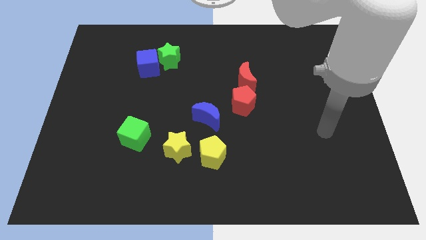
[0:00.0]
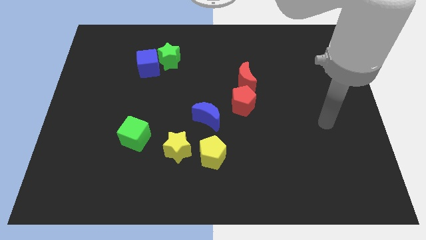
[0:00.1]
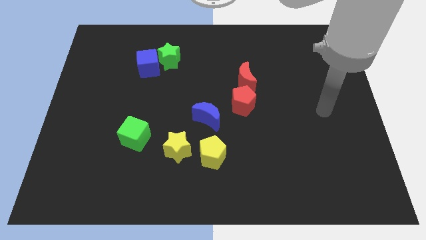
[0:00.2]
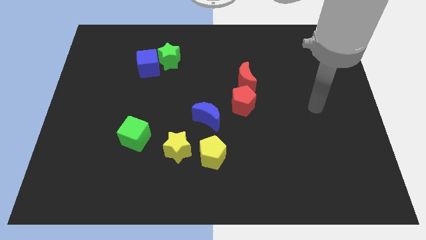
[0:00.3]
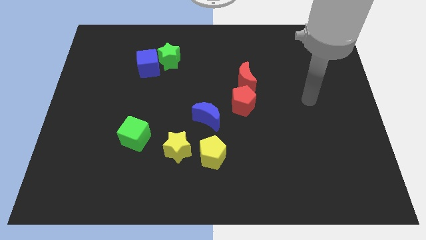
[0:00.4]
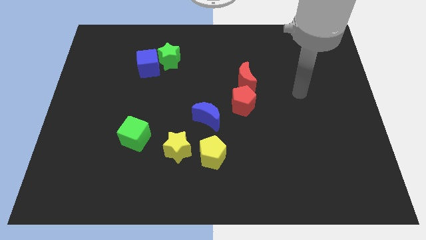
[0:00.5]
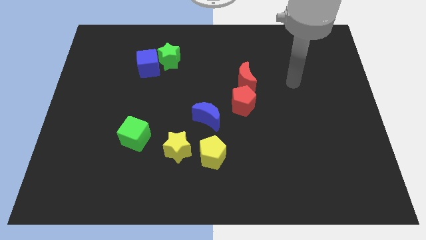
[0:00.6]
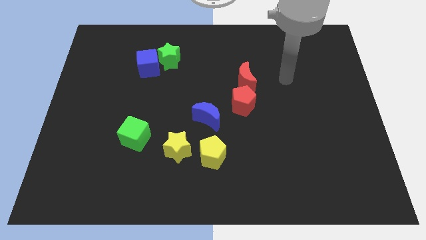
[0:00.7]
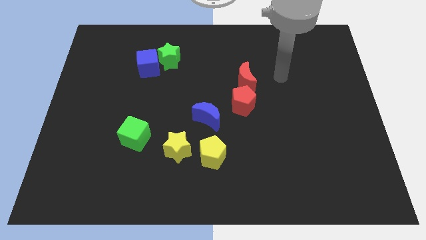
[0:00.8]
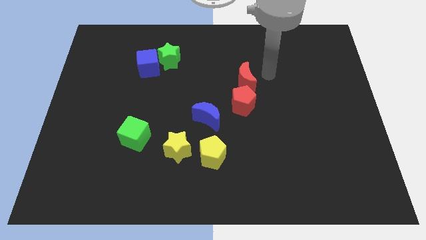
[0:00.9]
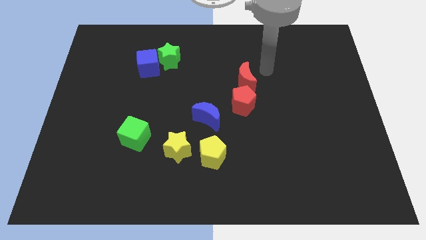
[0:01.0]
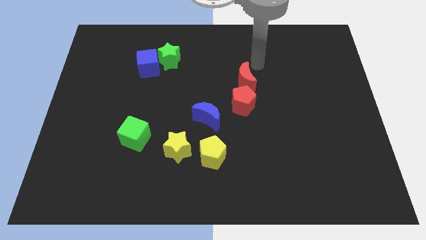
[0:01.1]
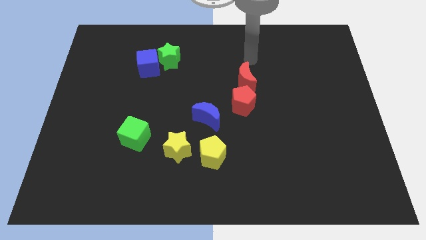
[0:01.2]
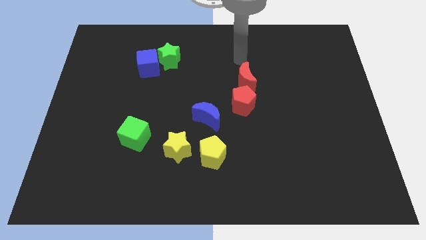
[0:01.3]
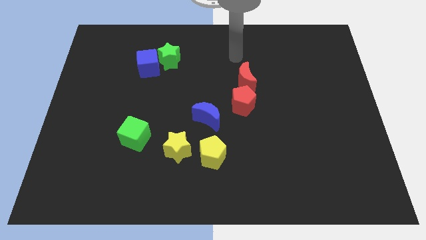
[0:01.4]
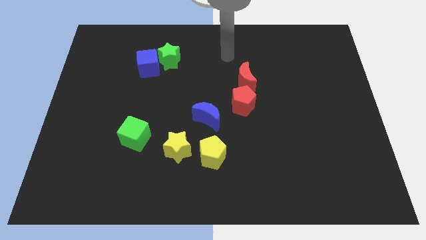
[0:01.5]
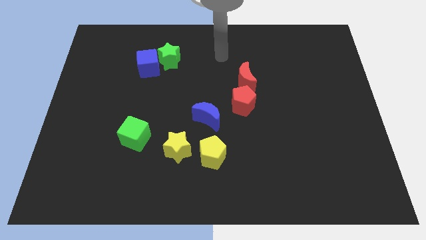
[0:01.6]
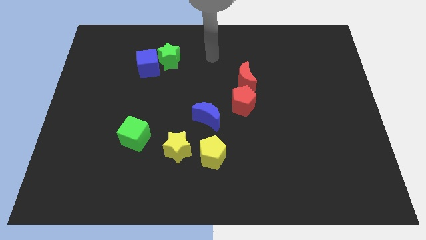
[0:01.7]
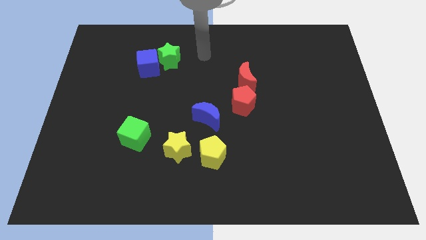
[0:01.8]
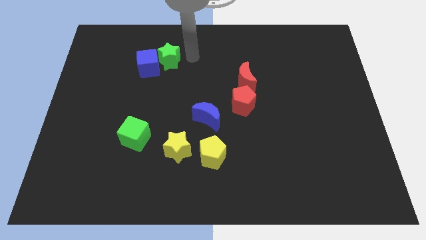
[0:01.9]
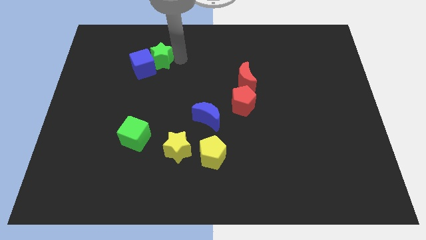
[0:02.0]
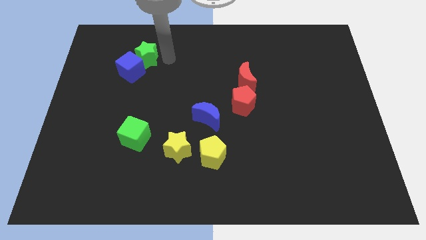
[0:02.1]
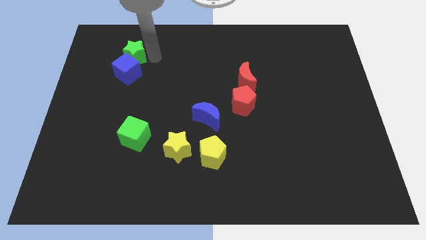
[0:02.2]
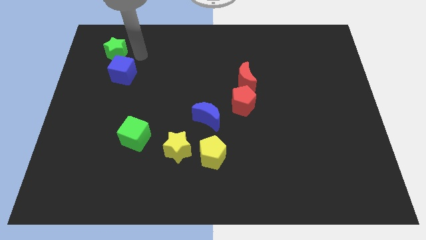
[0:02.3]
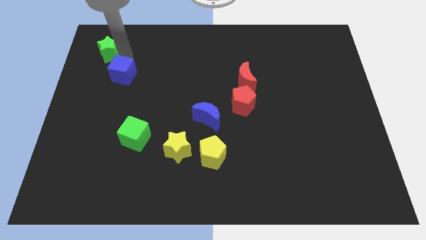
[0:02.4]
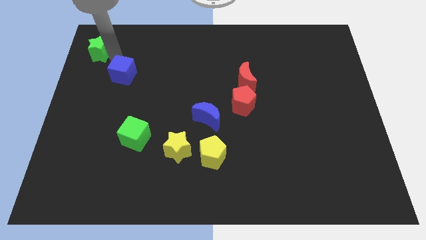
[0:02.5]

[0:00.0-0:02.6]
separate the blue cube from the green star

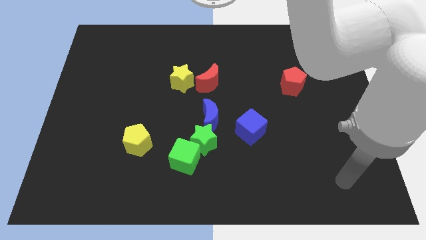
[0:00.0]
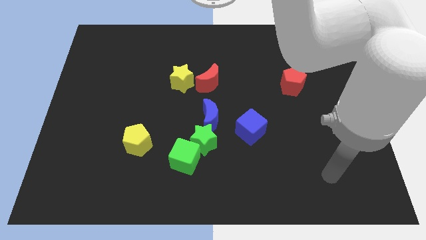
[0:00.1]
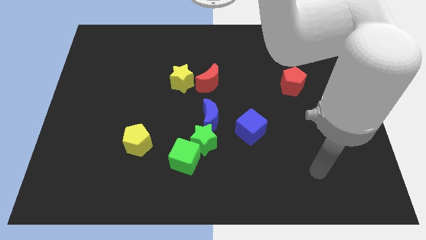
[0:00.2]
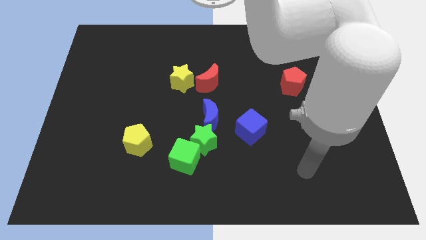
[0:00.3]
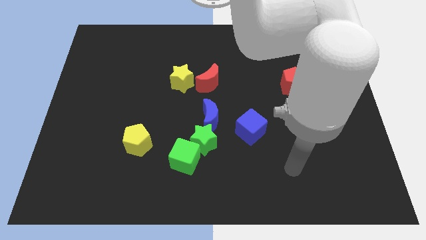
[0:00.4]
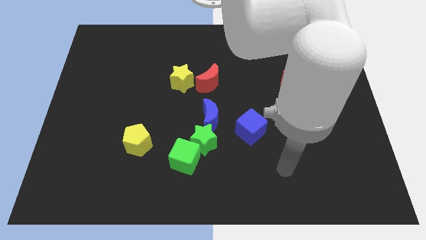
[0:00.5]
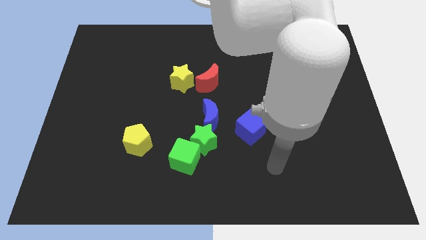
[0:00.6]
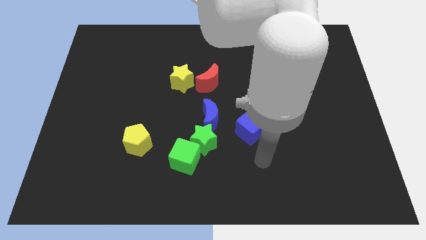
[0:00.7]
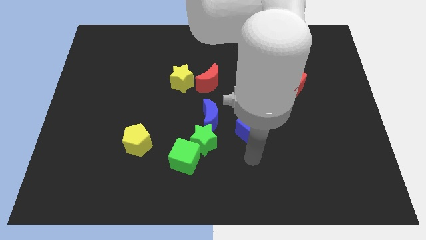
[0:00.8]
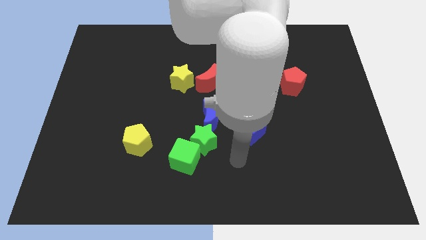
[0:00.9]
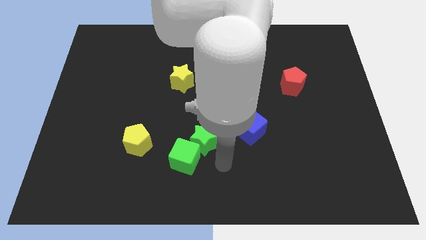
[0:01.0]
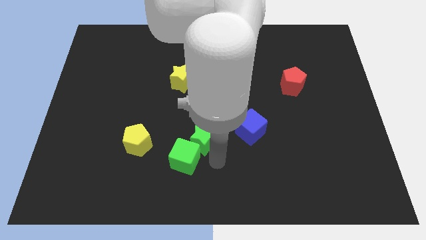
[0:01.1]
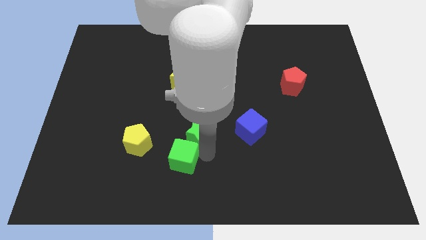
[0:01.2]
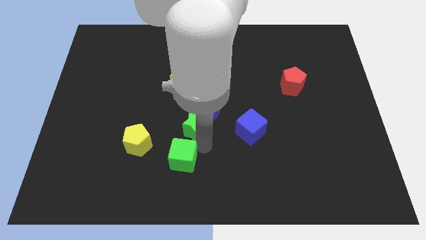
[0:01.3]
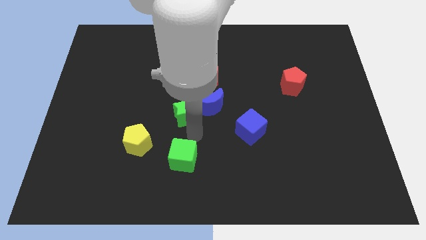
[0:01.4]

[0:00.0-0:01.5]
separate the green cube from the green star

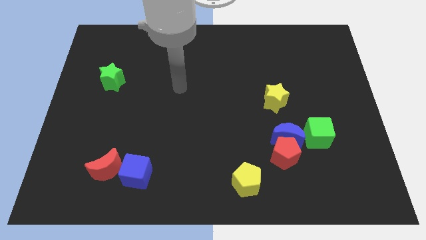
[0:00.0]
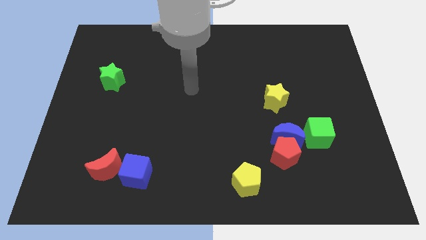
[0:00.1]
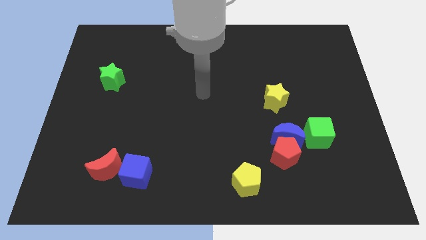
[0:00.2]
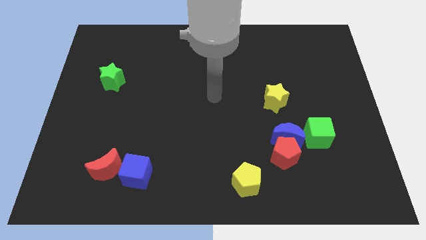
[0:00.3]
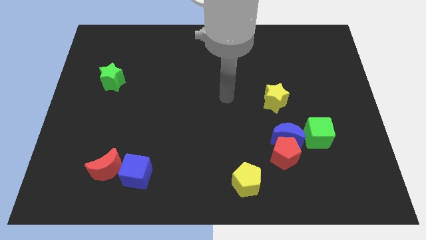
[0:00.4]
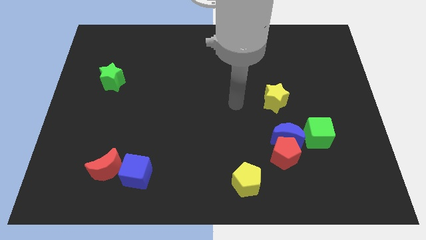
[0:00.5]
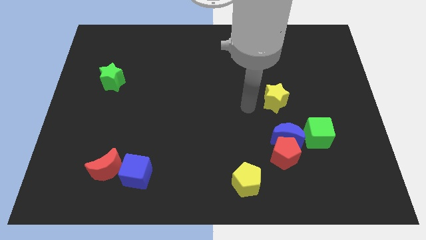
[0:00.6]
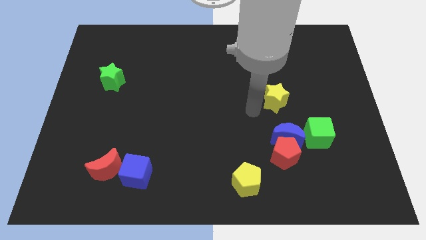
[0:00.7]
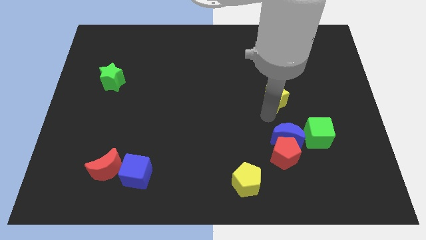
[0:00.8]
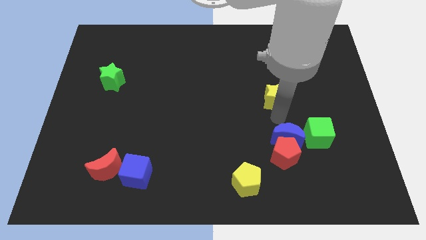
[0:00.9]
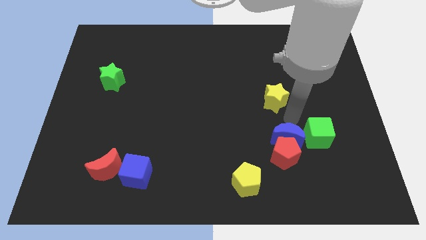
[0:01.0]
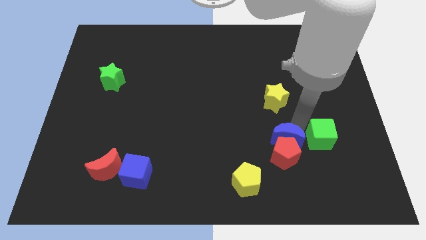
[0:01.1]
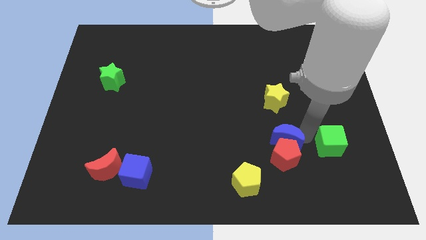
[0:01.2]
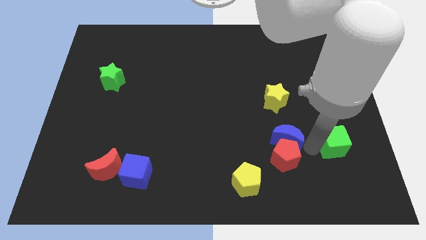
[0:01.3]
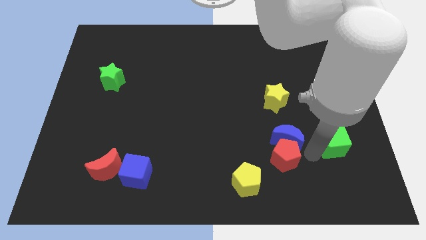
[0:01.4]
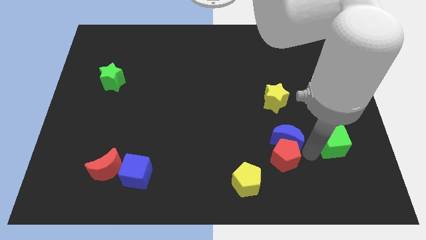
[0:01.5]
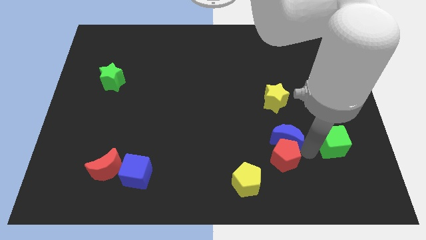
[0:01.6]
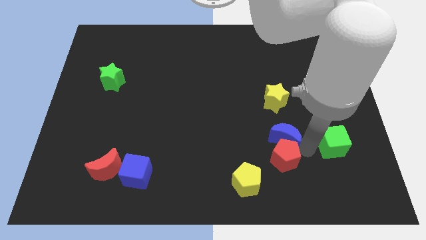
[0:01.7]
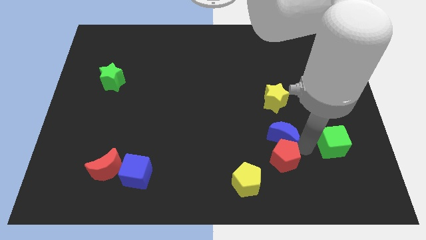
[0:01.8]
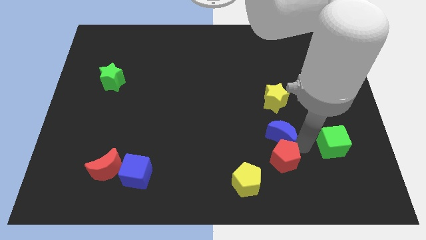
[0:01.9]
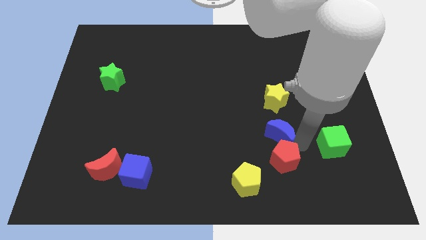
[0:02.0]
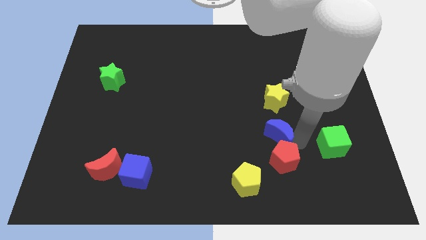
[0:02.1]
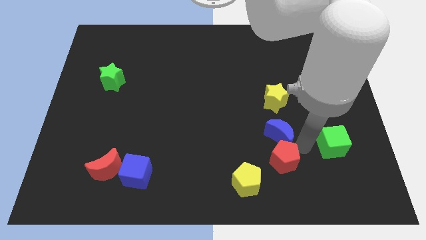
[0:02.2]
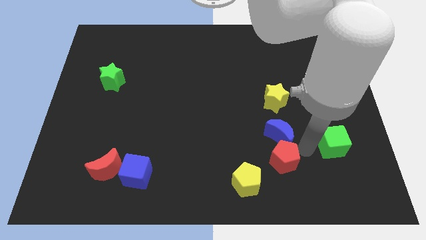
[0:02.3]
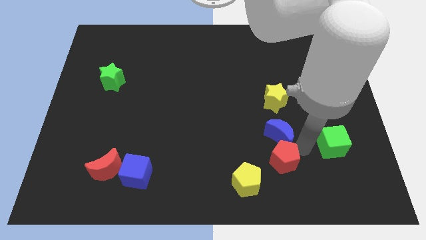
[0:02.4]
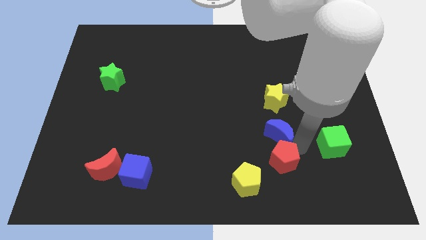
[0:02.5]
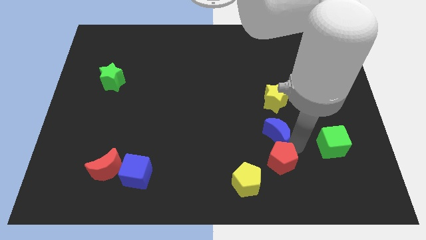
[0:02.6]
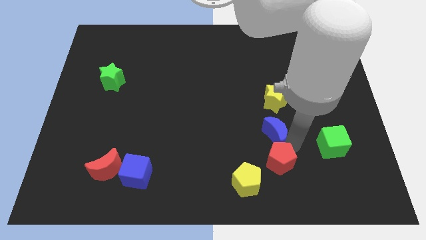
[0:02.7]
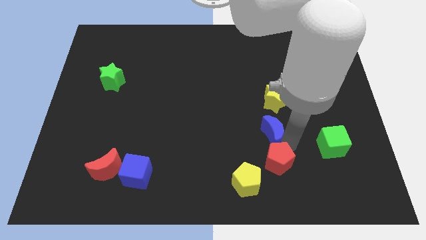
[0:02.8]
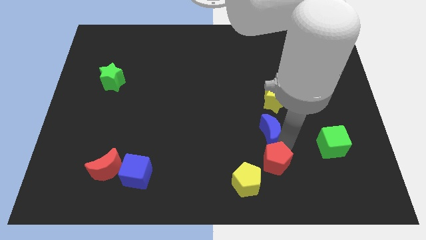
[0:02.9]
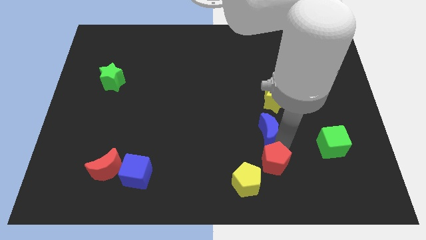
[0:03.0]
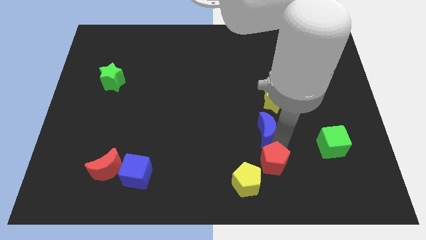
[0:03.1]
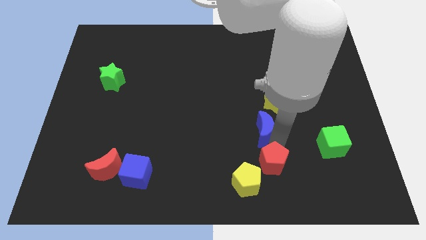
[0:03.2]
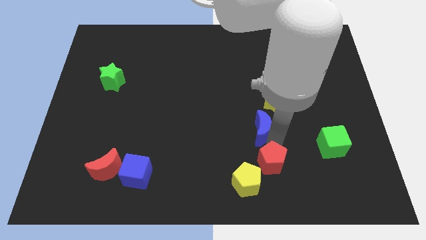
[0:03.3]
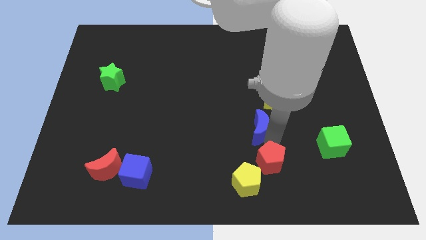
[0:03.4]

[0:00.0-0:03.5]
pull the blue moon apart from the red pentagon and green cube

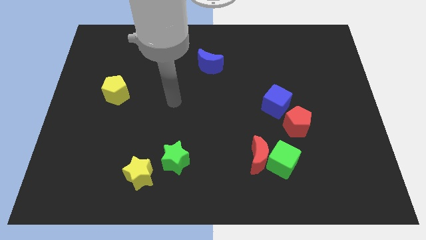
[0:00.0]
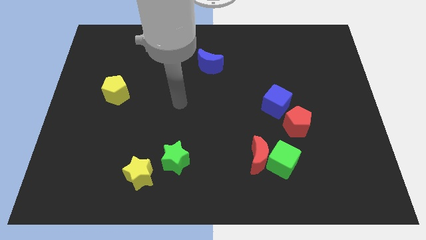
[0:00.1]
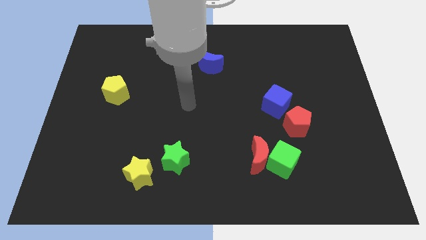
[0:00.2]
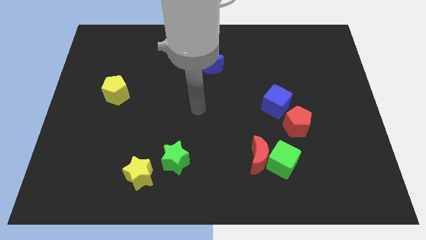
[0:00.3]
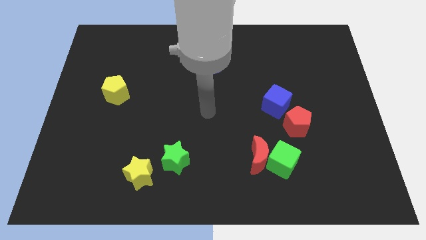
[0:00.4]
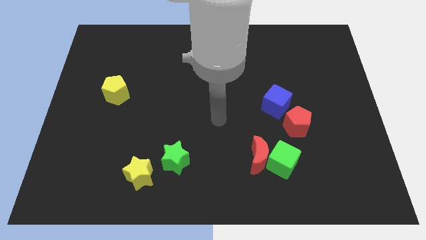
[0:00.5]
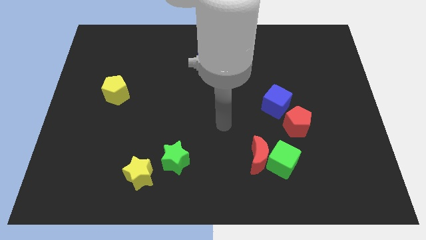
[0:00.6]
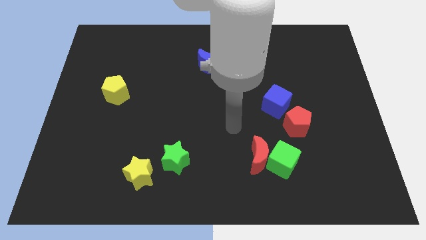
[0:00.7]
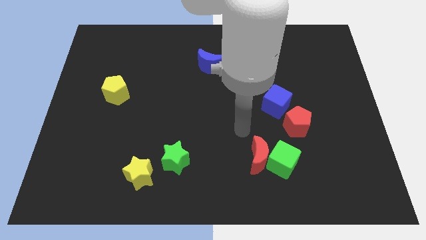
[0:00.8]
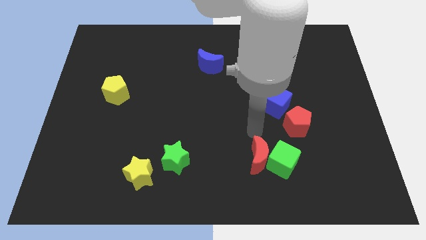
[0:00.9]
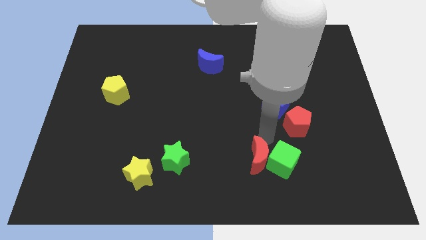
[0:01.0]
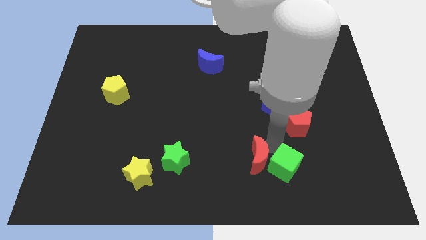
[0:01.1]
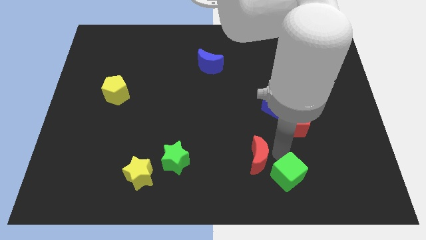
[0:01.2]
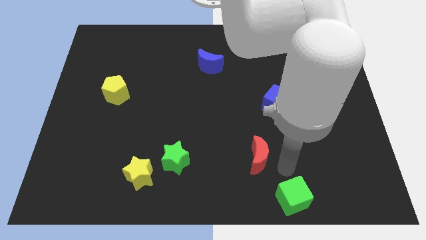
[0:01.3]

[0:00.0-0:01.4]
move the red moon away from the green cube

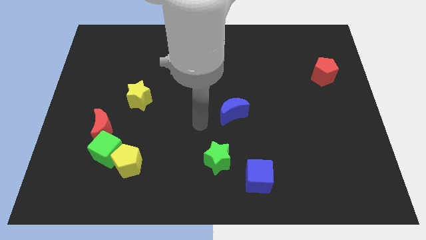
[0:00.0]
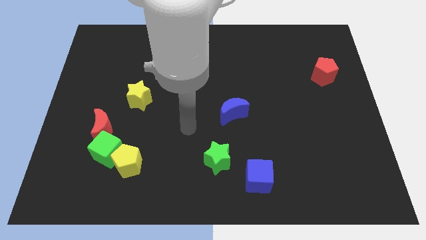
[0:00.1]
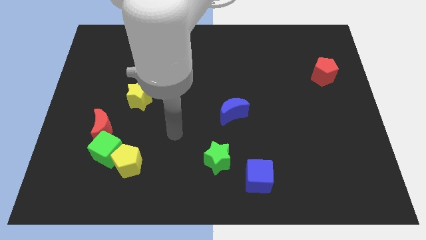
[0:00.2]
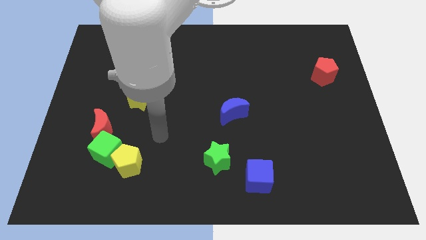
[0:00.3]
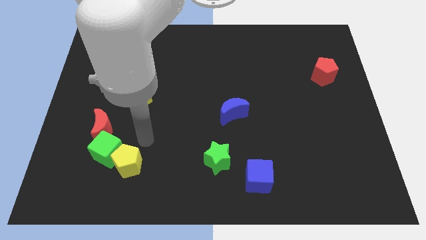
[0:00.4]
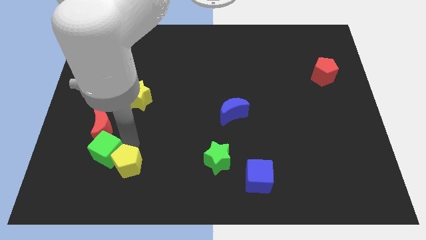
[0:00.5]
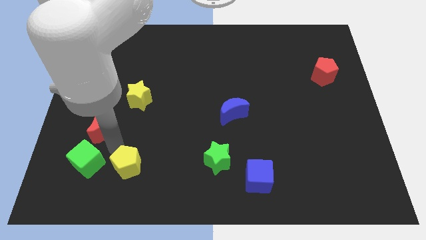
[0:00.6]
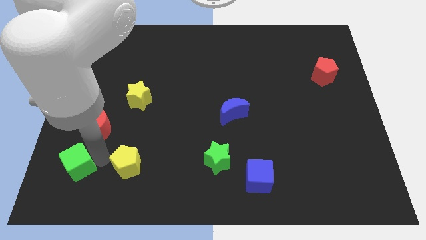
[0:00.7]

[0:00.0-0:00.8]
move the yellow pentagon away from the green cube
